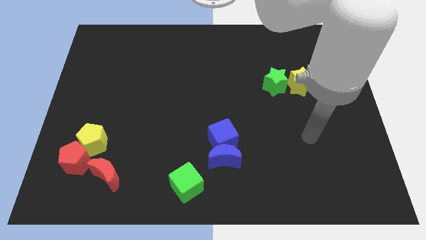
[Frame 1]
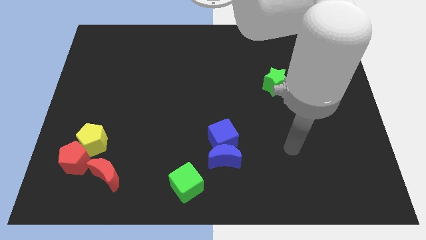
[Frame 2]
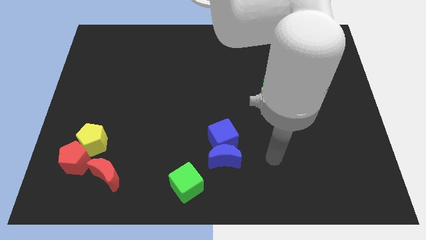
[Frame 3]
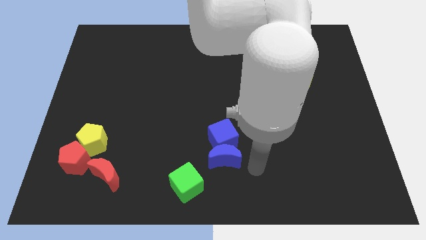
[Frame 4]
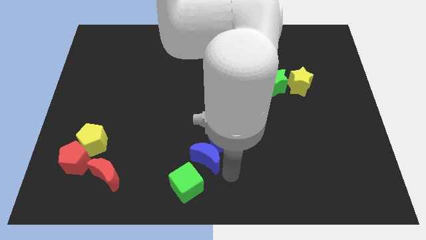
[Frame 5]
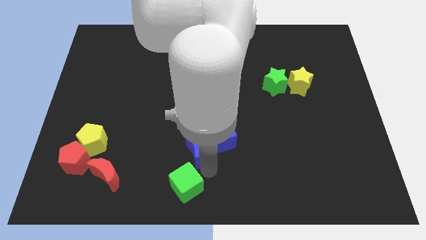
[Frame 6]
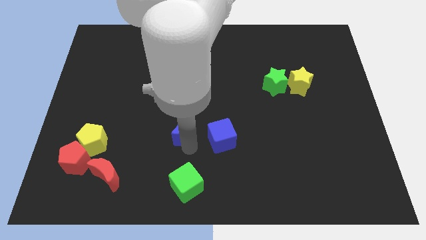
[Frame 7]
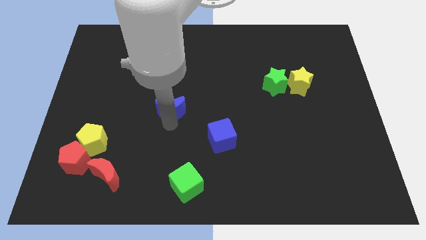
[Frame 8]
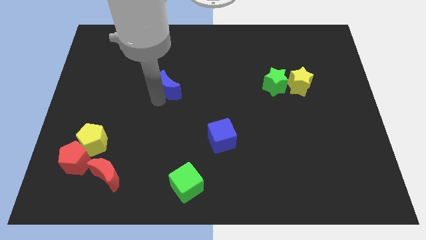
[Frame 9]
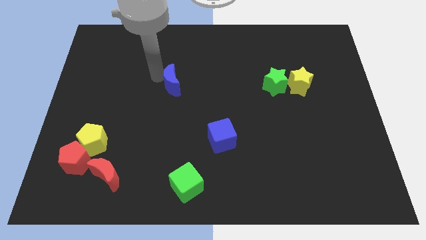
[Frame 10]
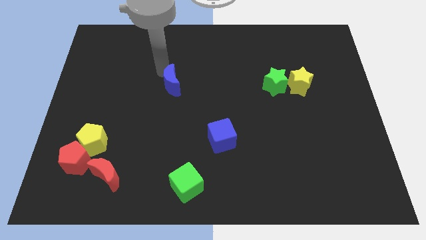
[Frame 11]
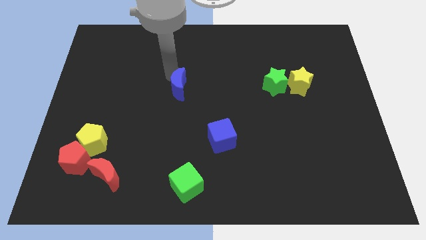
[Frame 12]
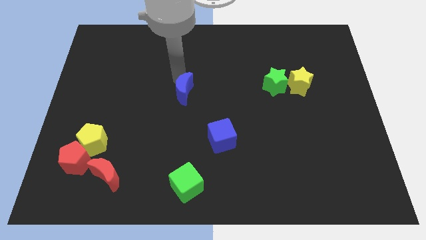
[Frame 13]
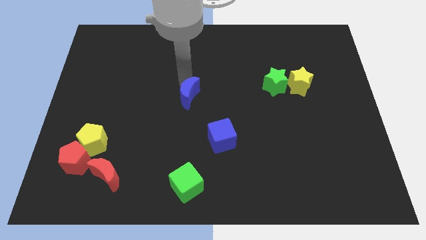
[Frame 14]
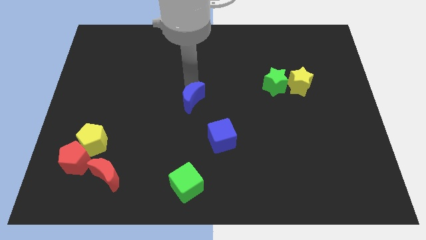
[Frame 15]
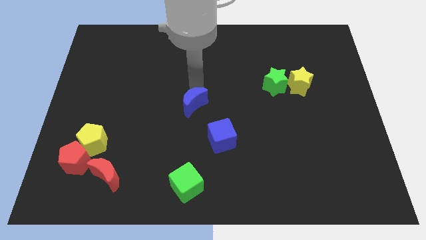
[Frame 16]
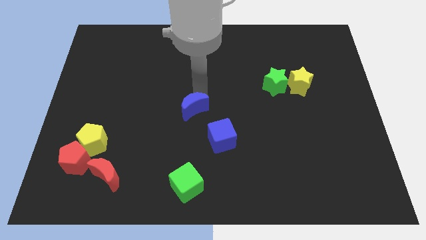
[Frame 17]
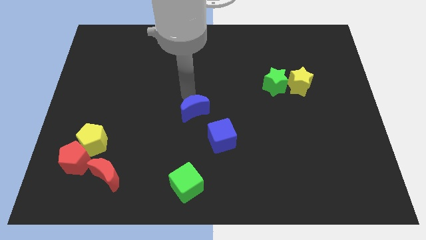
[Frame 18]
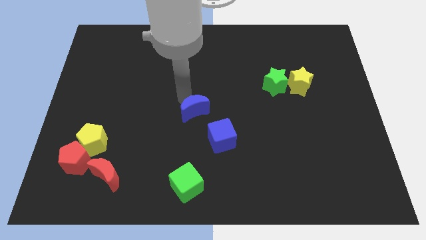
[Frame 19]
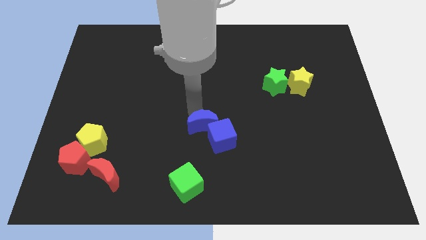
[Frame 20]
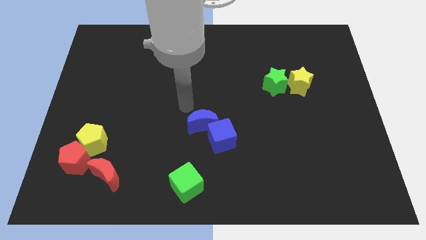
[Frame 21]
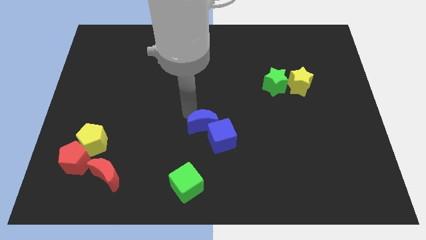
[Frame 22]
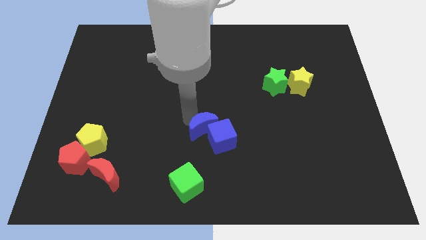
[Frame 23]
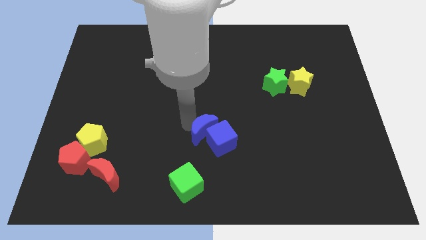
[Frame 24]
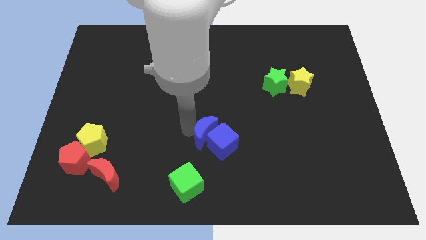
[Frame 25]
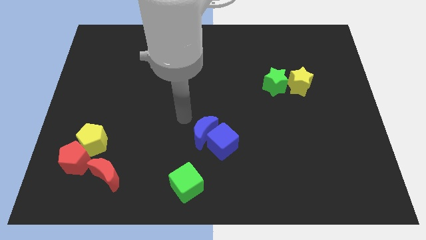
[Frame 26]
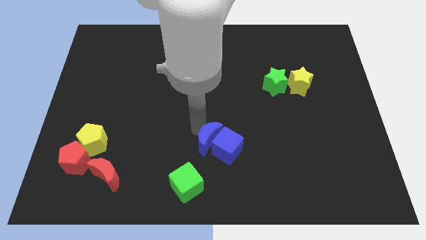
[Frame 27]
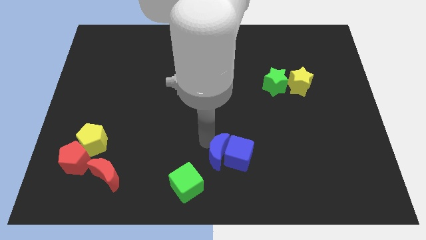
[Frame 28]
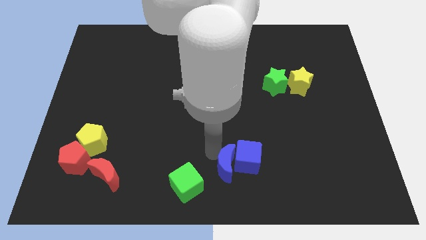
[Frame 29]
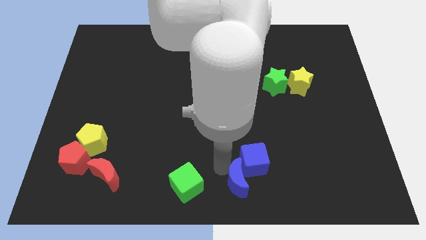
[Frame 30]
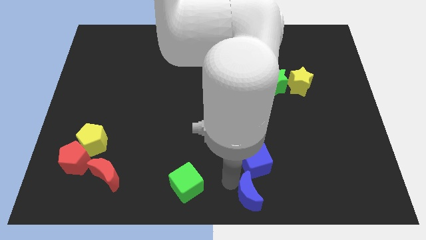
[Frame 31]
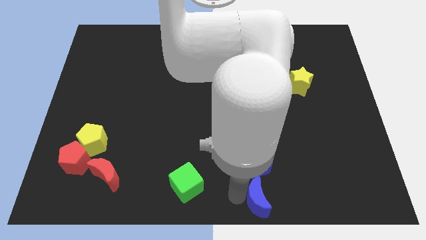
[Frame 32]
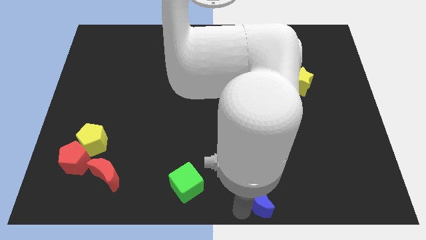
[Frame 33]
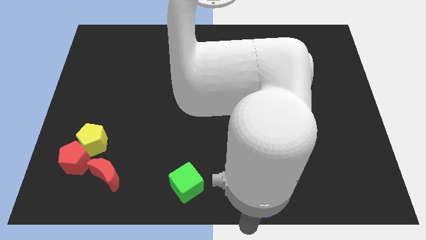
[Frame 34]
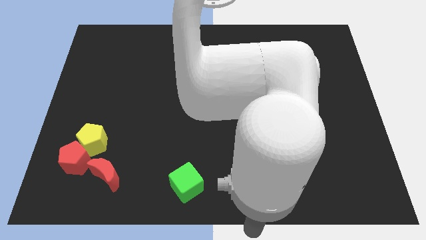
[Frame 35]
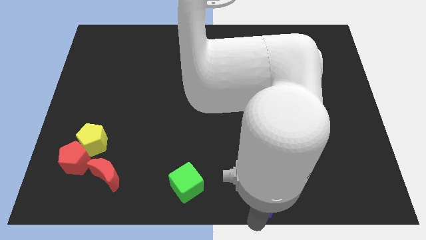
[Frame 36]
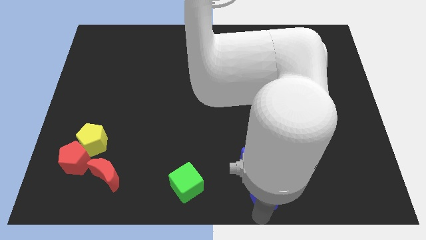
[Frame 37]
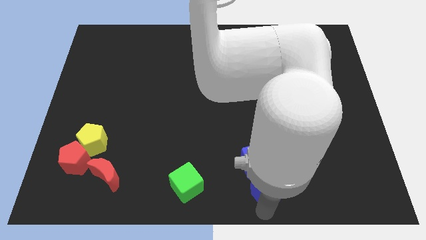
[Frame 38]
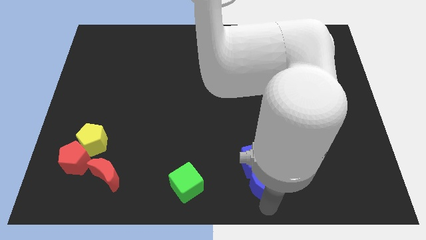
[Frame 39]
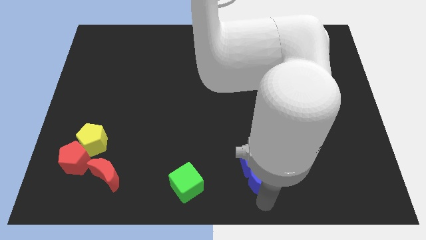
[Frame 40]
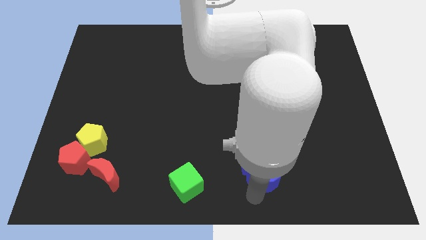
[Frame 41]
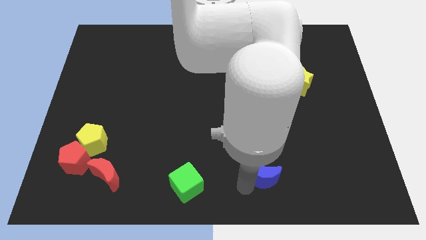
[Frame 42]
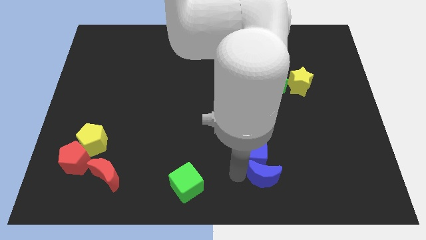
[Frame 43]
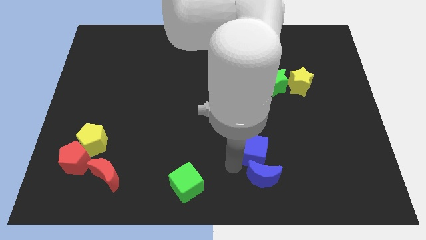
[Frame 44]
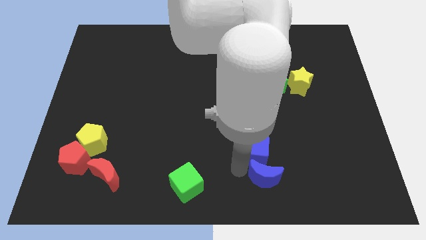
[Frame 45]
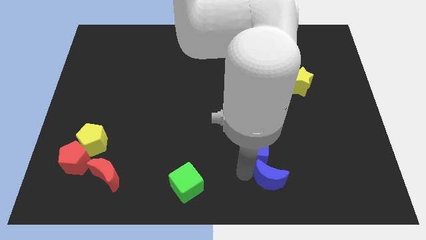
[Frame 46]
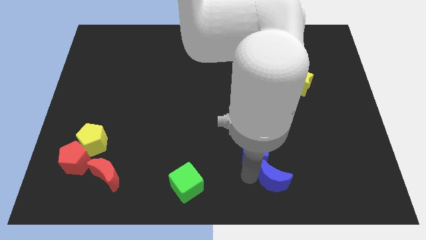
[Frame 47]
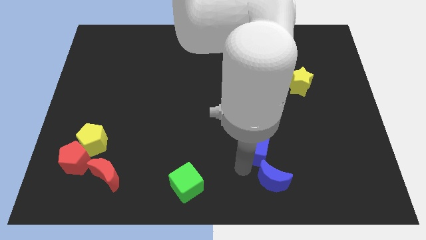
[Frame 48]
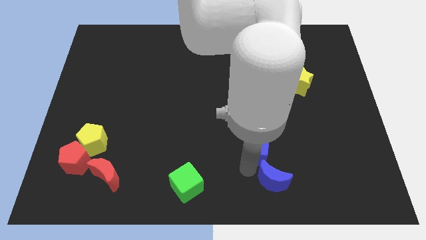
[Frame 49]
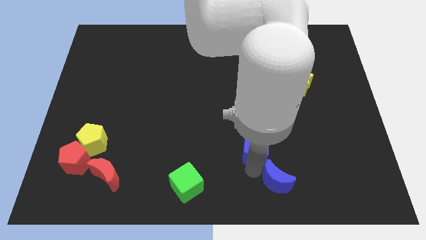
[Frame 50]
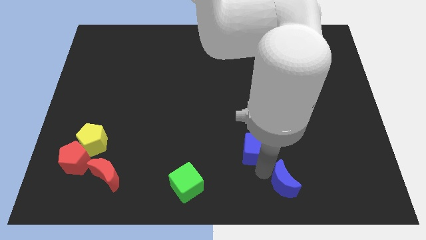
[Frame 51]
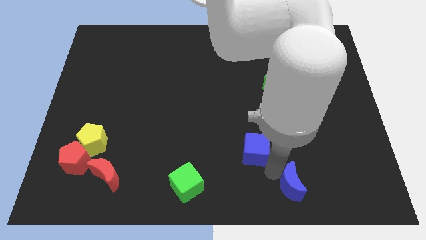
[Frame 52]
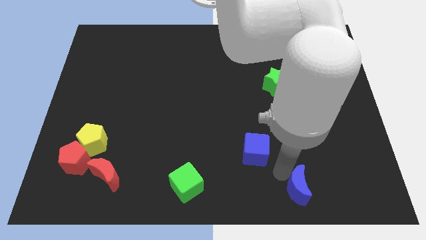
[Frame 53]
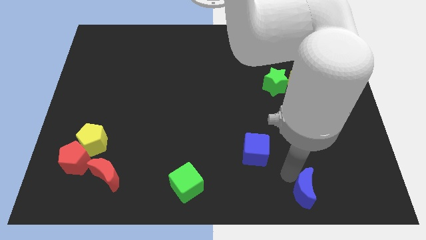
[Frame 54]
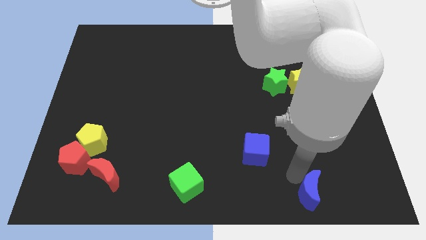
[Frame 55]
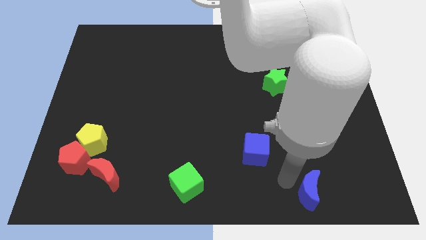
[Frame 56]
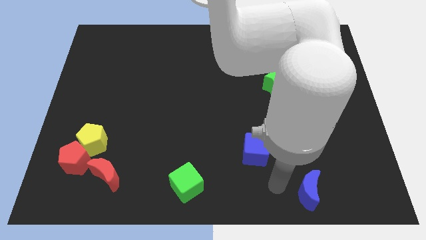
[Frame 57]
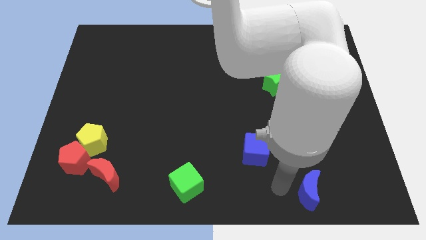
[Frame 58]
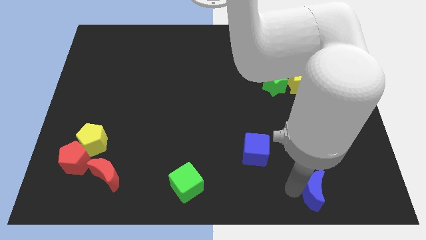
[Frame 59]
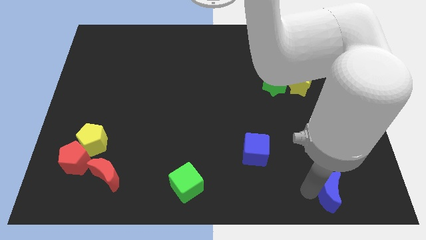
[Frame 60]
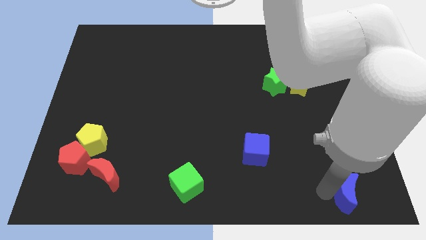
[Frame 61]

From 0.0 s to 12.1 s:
push the blue moon to the lower right corner

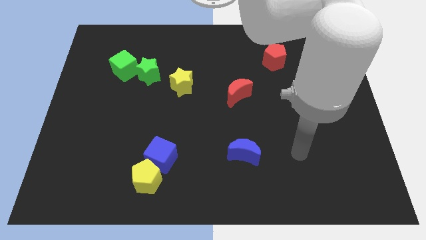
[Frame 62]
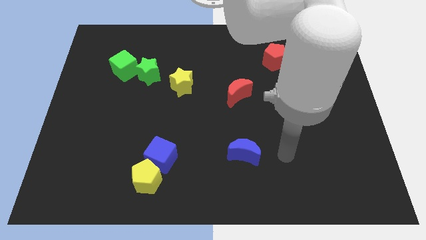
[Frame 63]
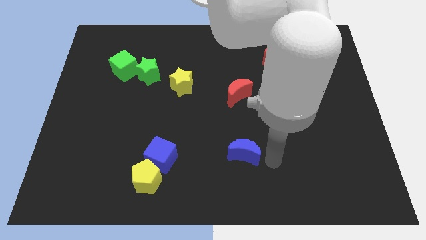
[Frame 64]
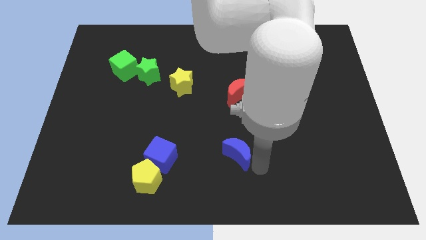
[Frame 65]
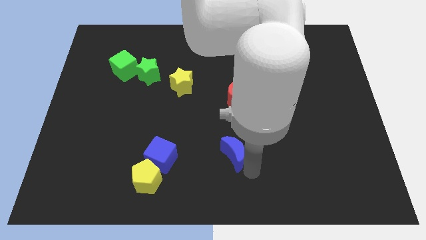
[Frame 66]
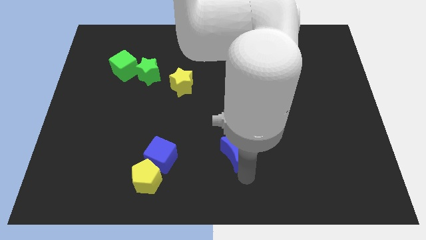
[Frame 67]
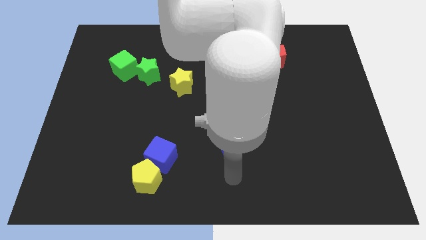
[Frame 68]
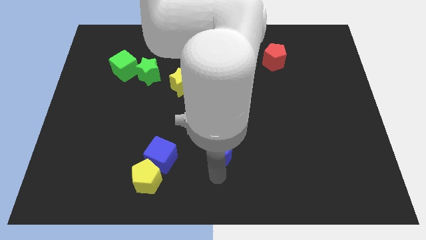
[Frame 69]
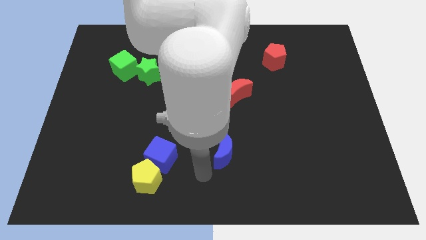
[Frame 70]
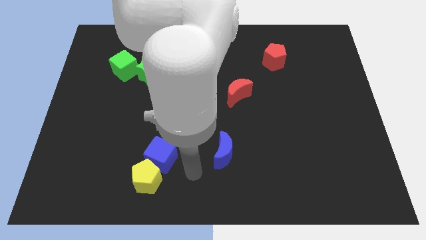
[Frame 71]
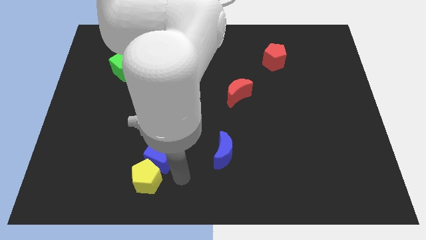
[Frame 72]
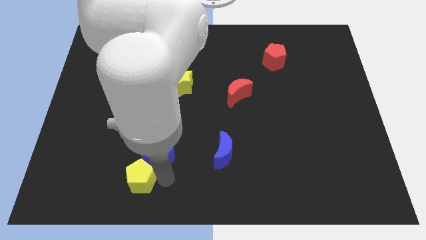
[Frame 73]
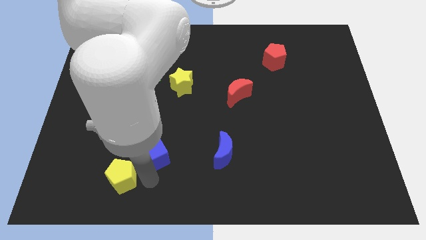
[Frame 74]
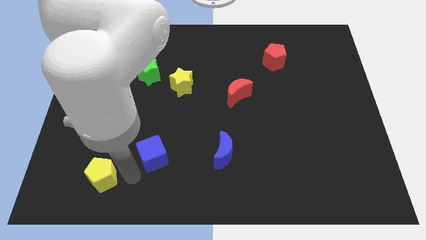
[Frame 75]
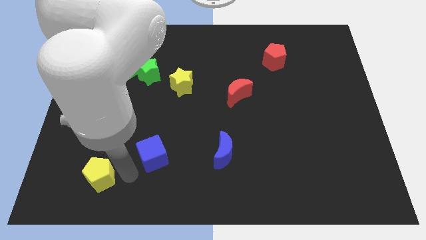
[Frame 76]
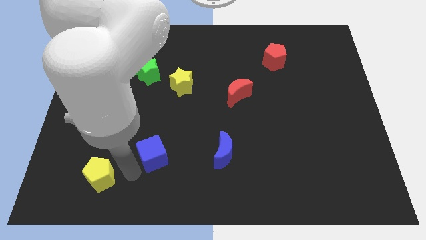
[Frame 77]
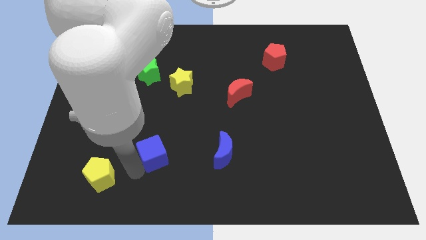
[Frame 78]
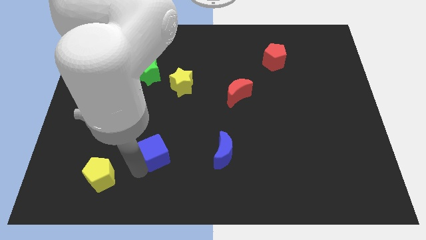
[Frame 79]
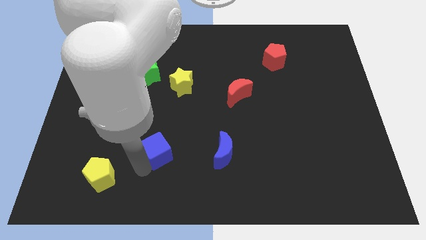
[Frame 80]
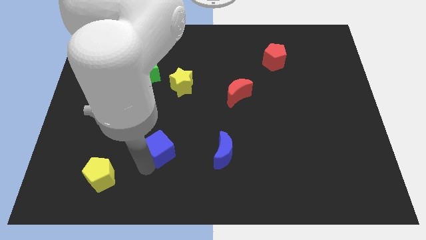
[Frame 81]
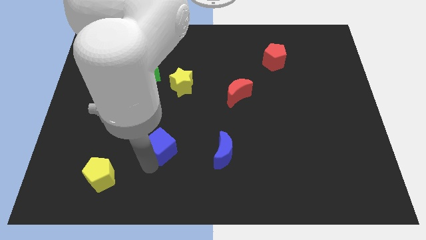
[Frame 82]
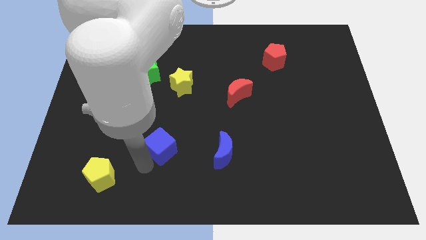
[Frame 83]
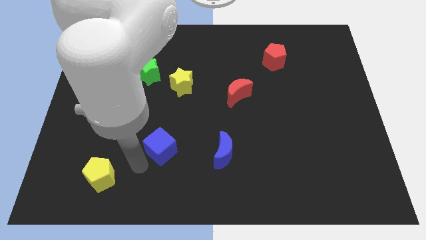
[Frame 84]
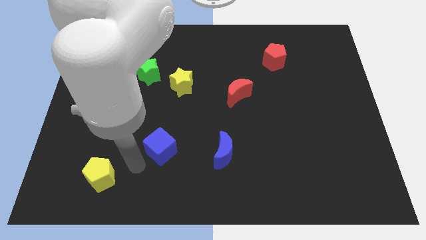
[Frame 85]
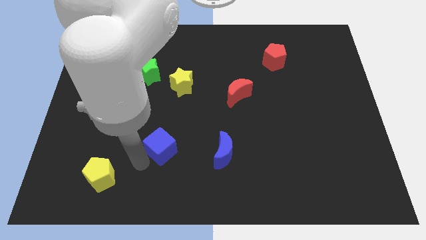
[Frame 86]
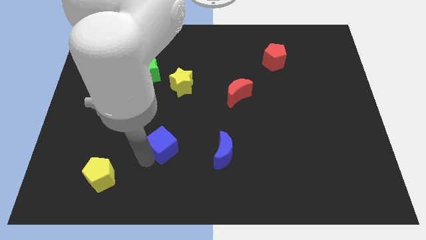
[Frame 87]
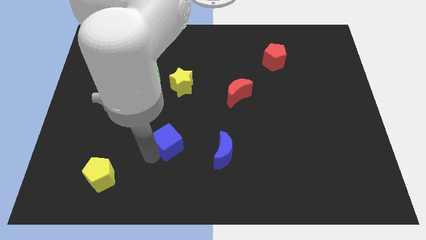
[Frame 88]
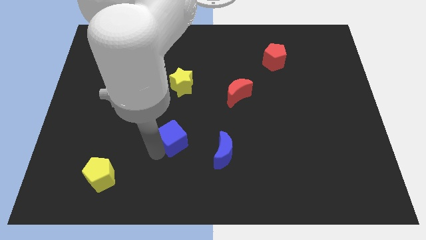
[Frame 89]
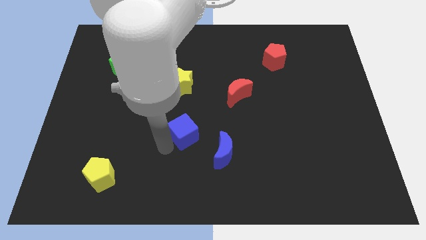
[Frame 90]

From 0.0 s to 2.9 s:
push the blue cube to the center of the board
